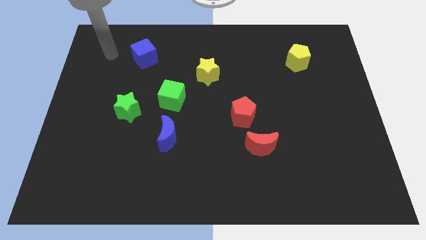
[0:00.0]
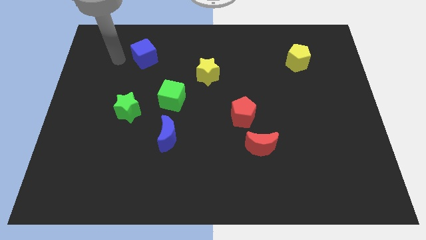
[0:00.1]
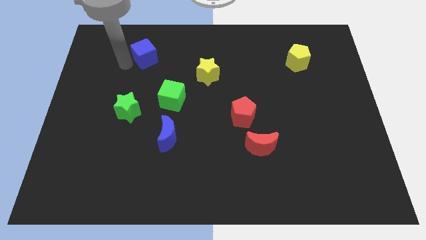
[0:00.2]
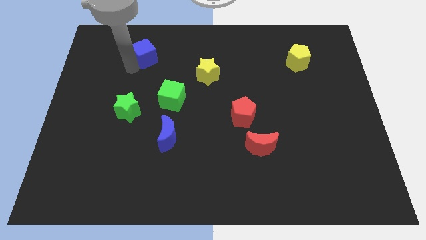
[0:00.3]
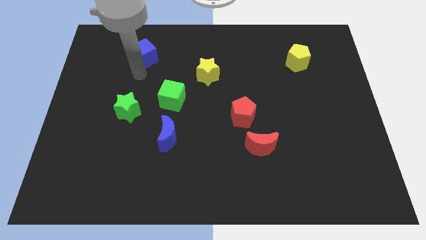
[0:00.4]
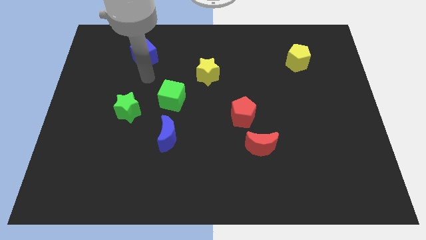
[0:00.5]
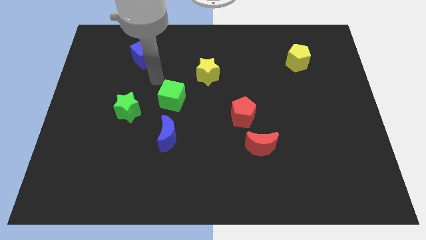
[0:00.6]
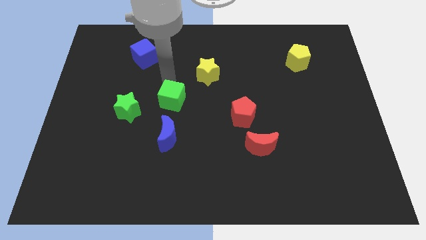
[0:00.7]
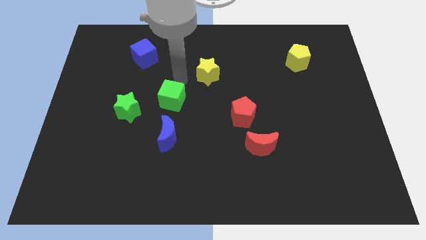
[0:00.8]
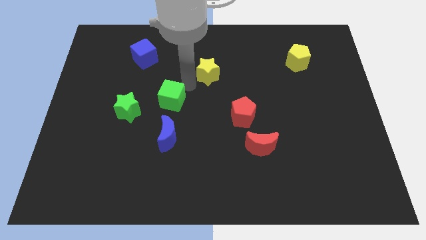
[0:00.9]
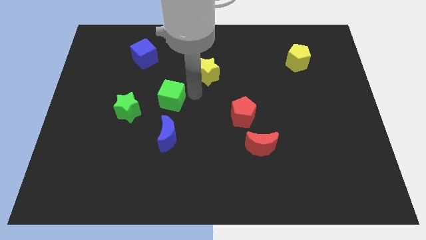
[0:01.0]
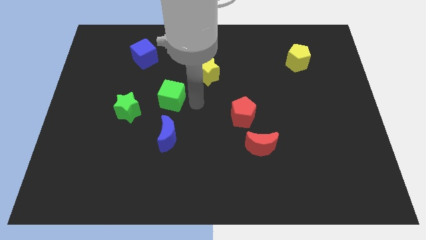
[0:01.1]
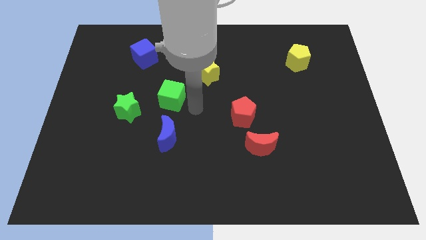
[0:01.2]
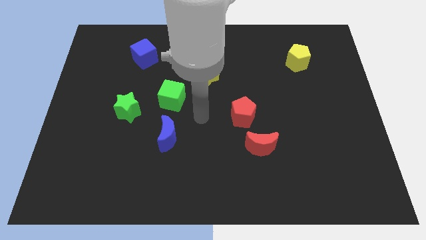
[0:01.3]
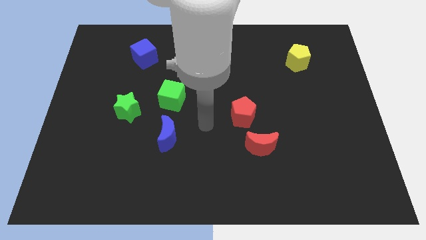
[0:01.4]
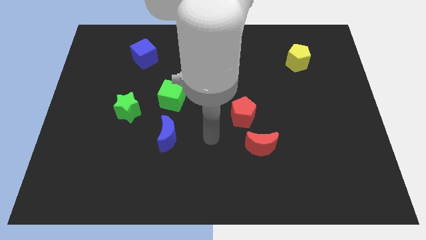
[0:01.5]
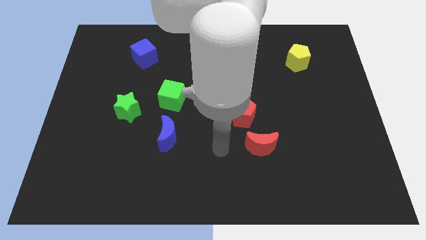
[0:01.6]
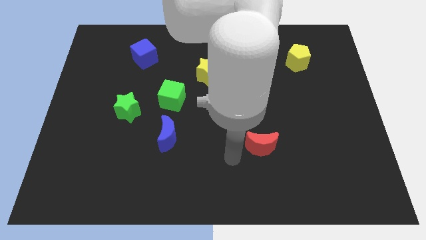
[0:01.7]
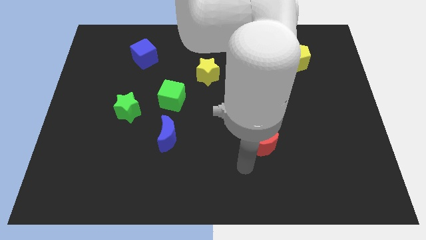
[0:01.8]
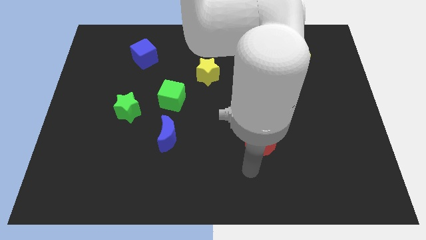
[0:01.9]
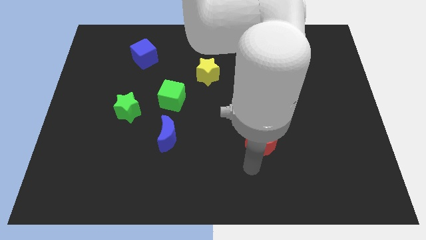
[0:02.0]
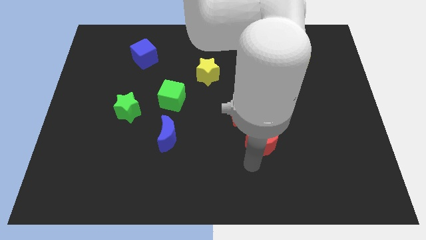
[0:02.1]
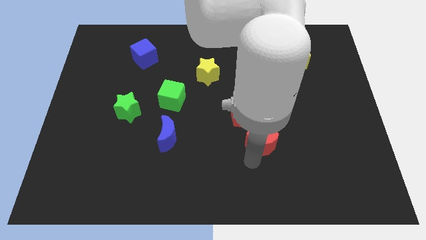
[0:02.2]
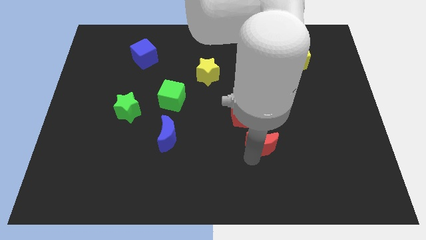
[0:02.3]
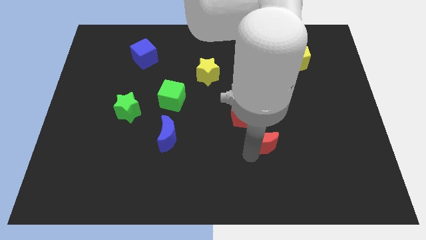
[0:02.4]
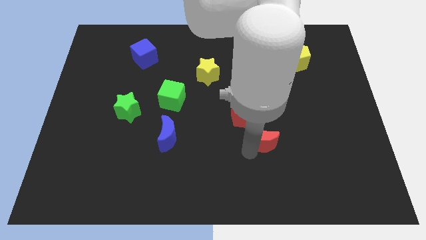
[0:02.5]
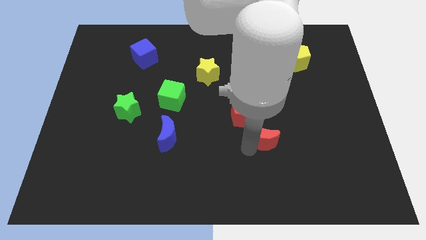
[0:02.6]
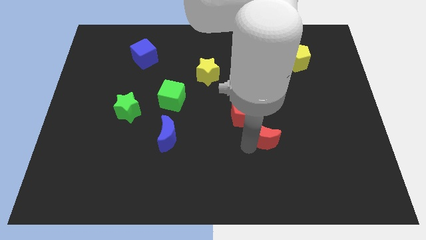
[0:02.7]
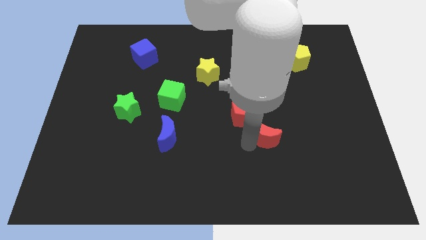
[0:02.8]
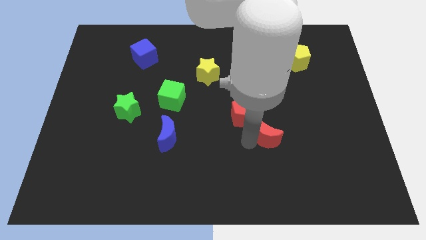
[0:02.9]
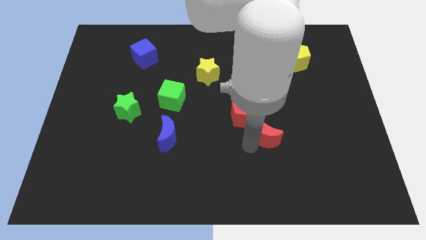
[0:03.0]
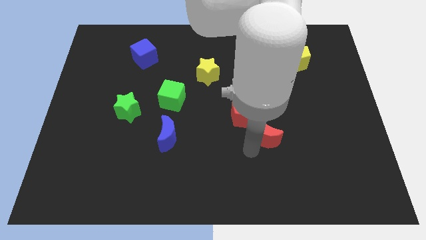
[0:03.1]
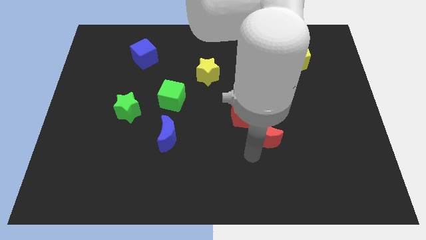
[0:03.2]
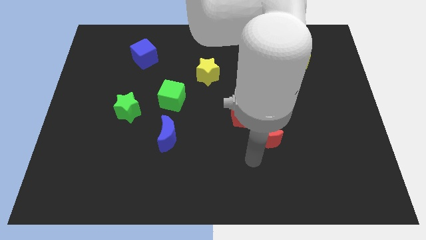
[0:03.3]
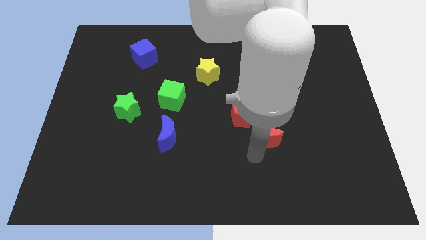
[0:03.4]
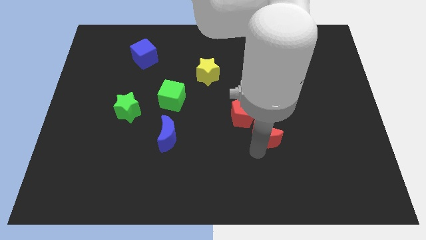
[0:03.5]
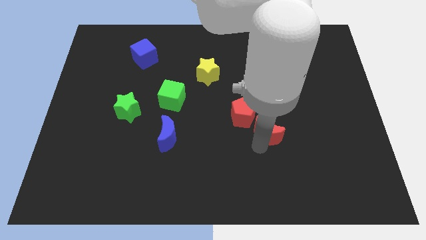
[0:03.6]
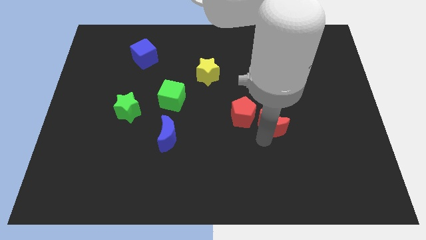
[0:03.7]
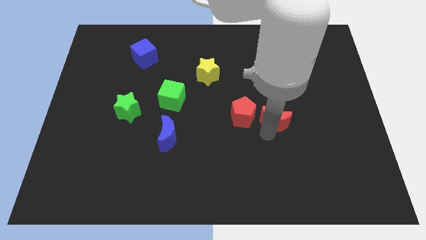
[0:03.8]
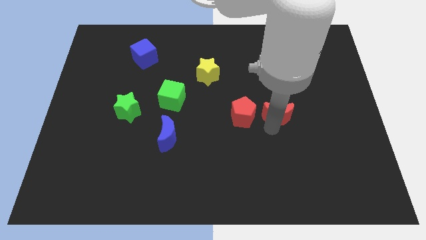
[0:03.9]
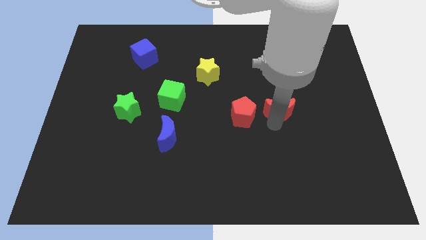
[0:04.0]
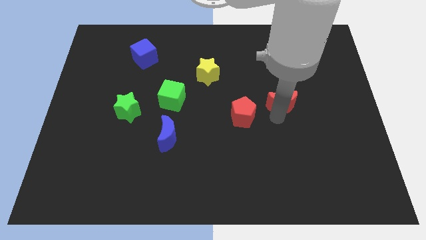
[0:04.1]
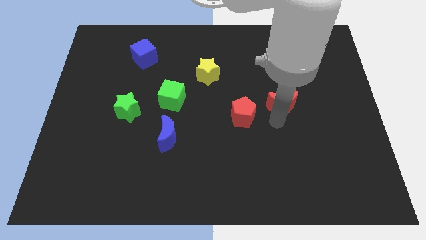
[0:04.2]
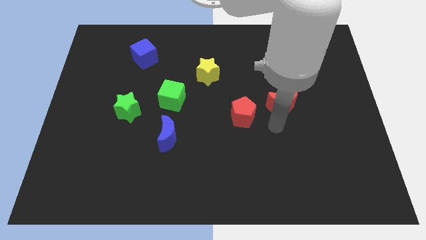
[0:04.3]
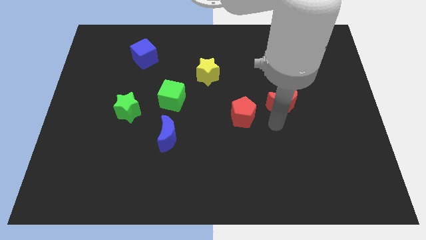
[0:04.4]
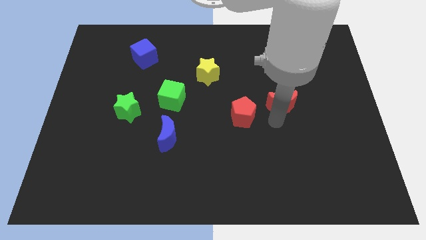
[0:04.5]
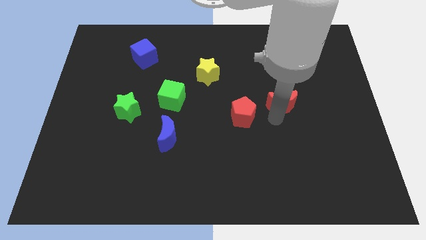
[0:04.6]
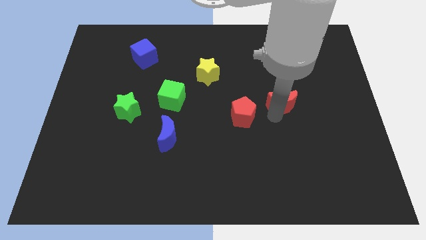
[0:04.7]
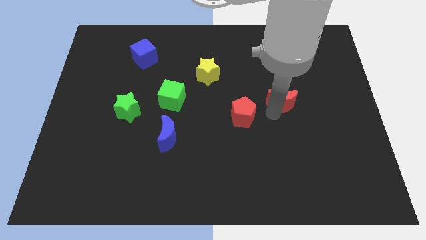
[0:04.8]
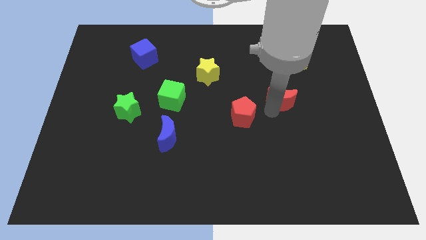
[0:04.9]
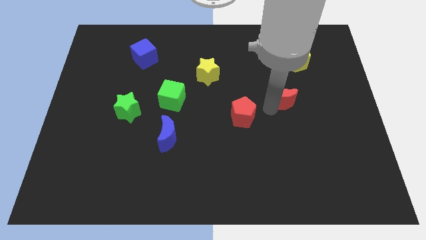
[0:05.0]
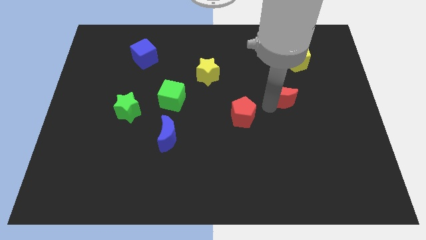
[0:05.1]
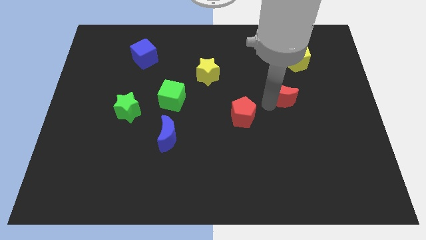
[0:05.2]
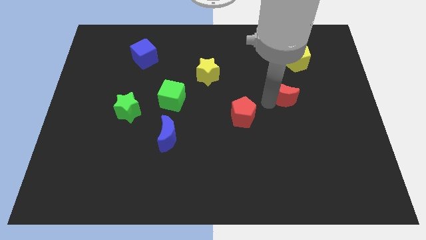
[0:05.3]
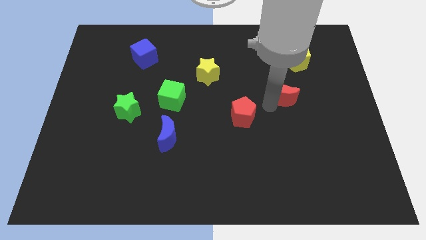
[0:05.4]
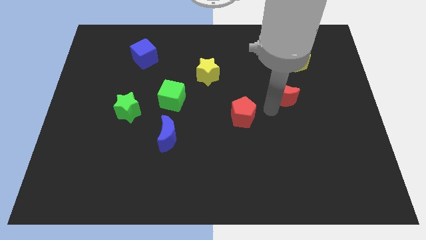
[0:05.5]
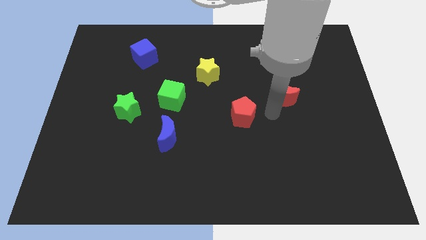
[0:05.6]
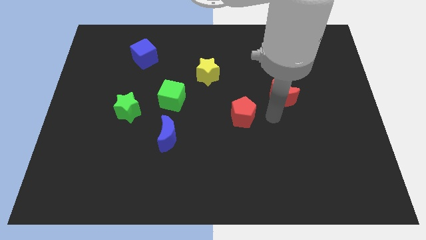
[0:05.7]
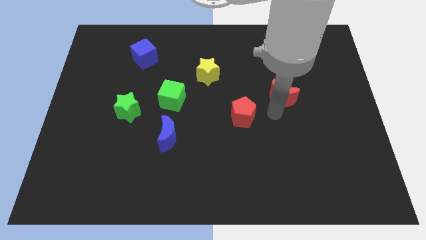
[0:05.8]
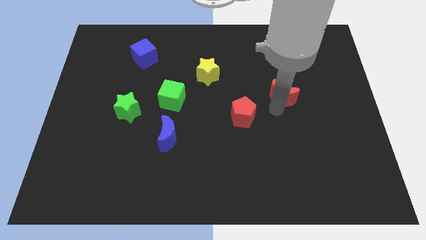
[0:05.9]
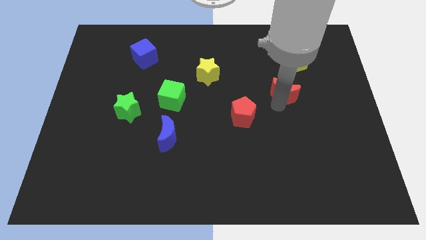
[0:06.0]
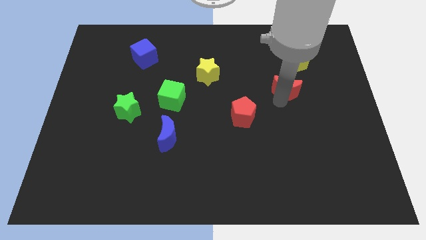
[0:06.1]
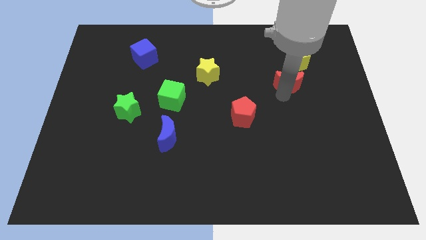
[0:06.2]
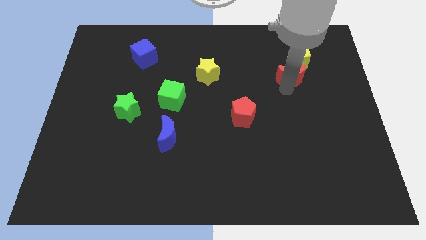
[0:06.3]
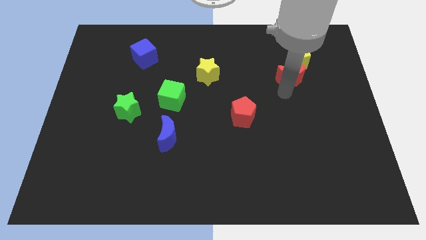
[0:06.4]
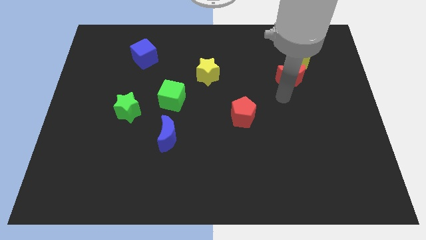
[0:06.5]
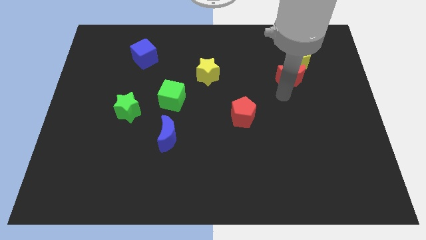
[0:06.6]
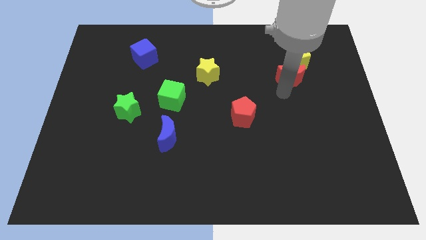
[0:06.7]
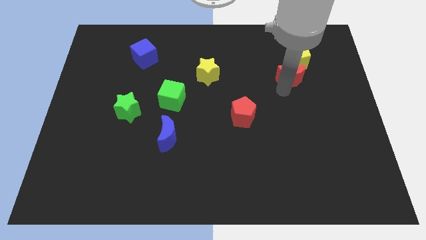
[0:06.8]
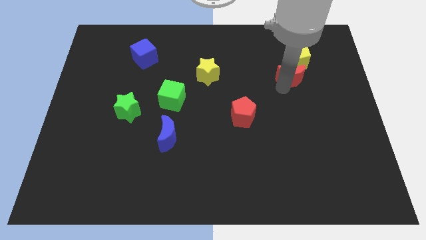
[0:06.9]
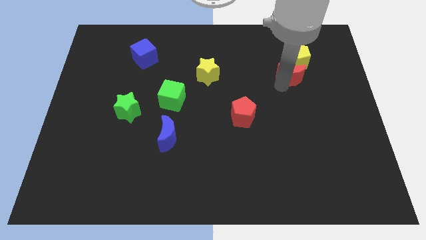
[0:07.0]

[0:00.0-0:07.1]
push the red moon close to the yellow pentagon

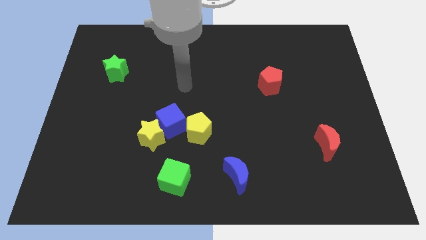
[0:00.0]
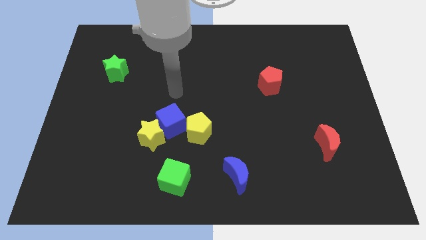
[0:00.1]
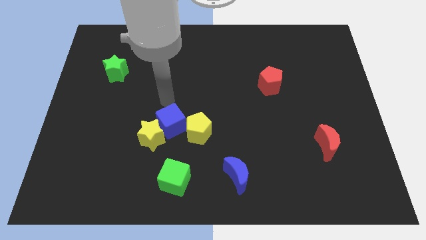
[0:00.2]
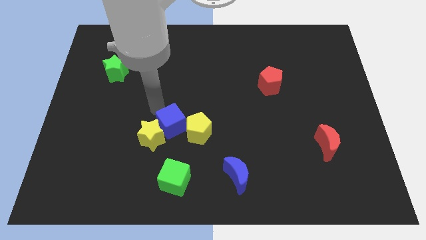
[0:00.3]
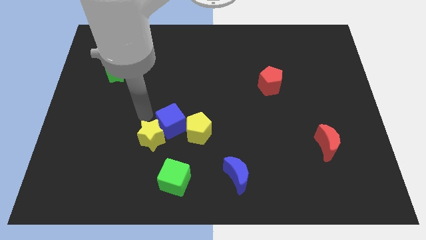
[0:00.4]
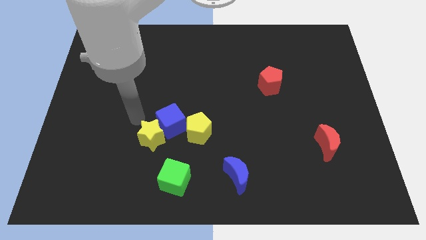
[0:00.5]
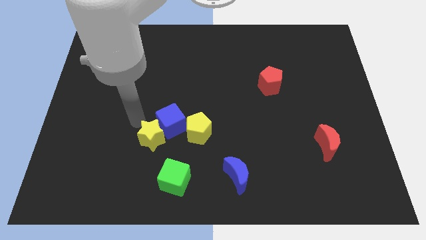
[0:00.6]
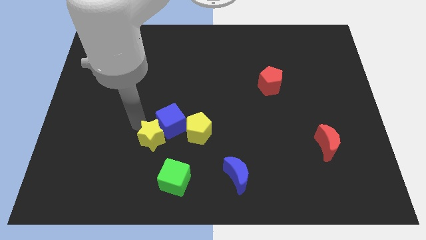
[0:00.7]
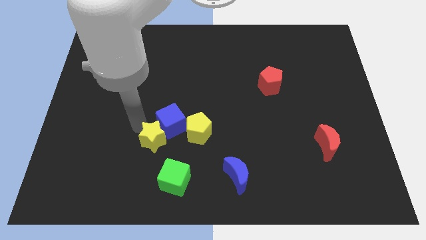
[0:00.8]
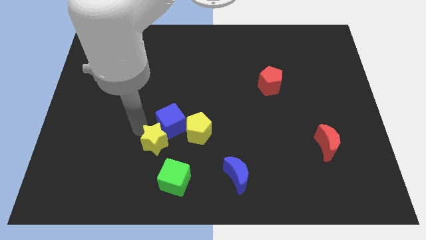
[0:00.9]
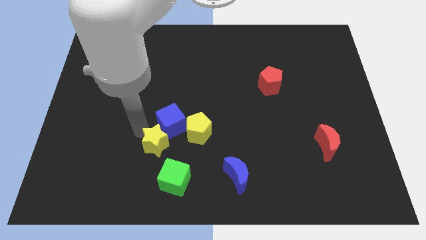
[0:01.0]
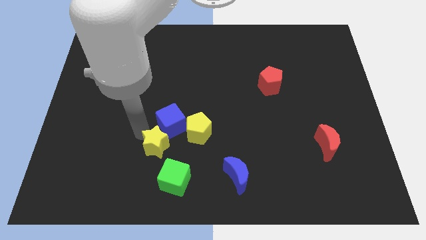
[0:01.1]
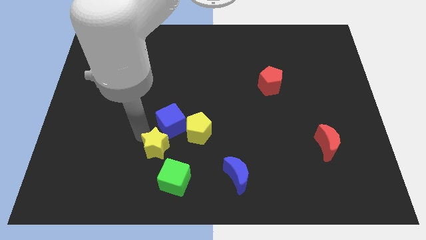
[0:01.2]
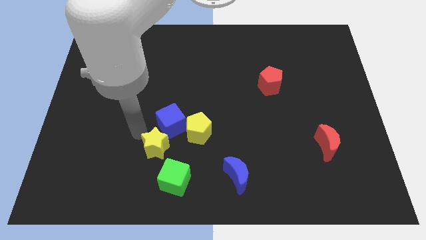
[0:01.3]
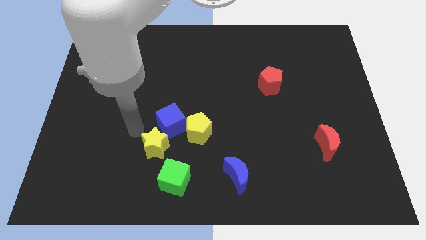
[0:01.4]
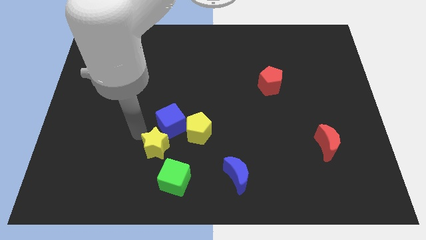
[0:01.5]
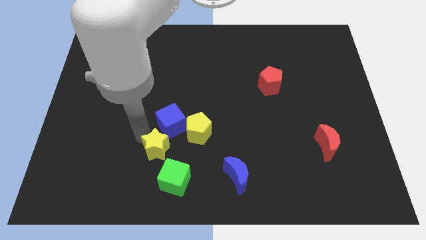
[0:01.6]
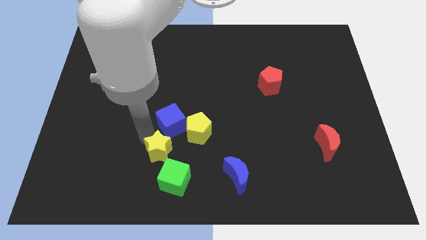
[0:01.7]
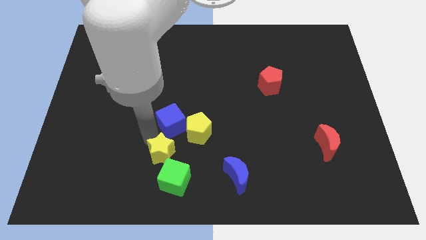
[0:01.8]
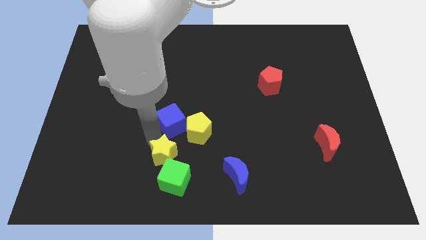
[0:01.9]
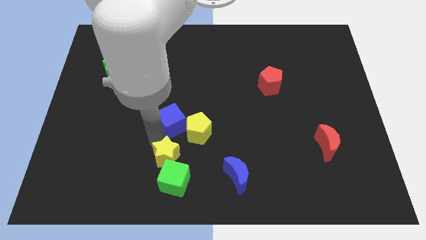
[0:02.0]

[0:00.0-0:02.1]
push the yellow star to the green cube
